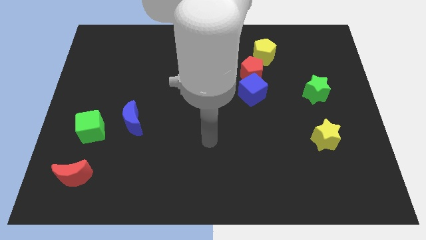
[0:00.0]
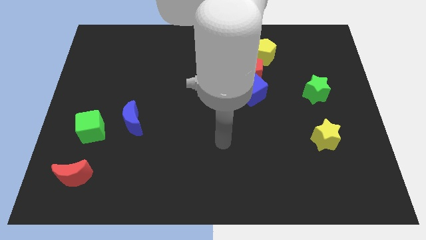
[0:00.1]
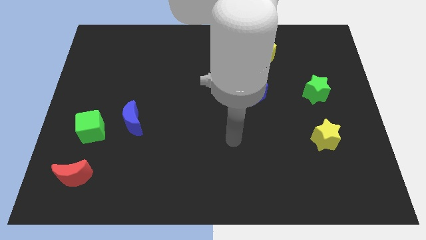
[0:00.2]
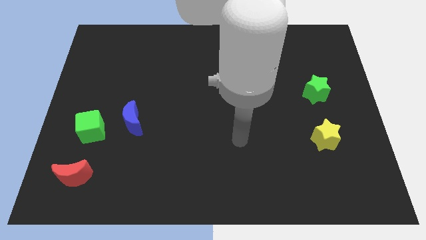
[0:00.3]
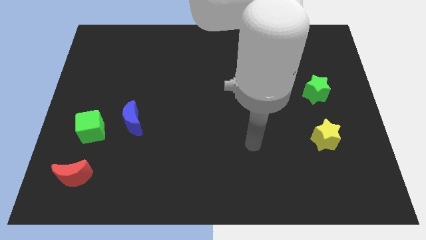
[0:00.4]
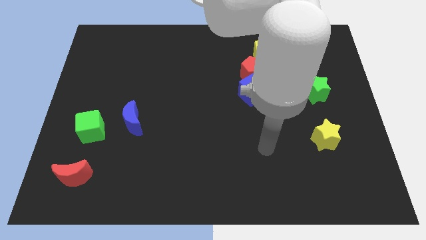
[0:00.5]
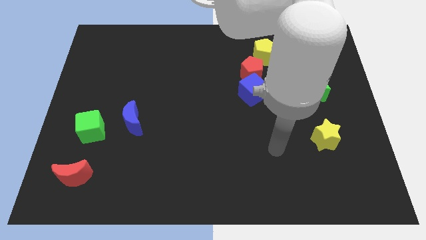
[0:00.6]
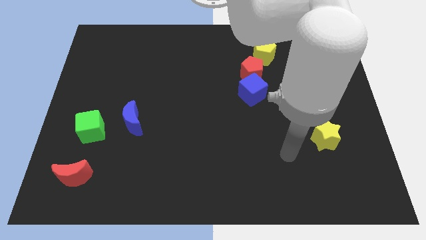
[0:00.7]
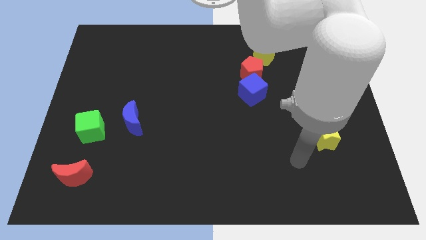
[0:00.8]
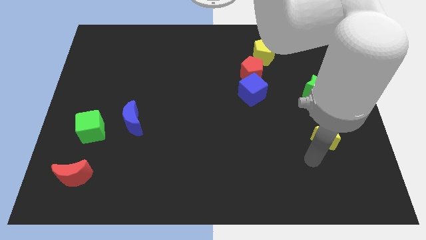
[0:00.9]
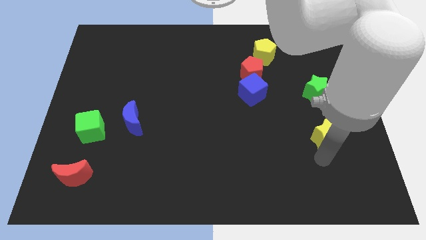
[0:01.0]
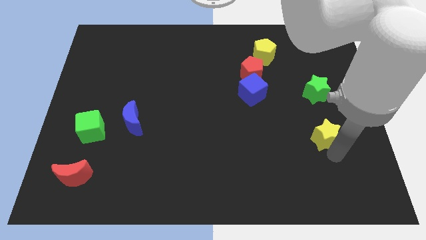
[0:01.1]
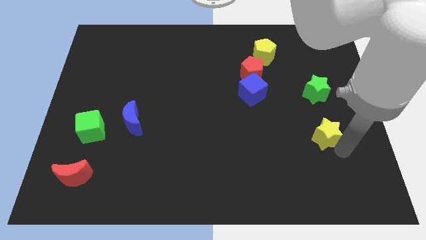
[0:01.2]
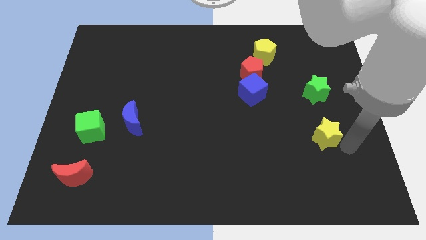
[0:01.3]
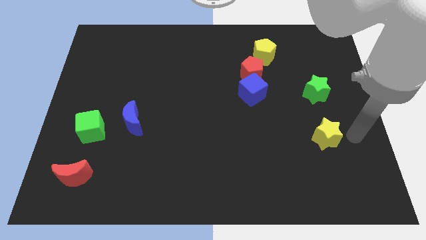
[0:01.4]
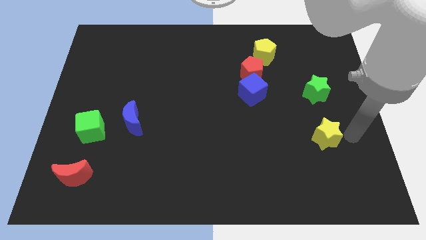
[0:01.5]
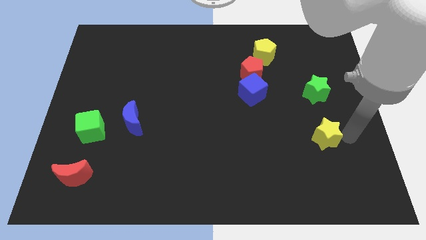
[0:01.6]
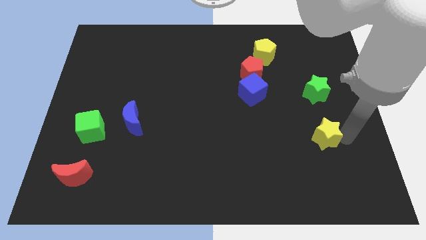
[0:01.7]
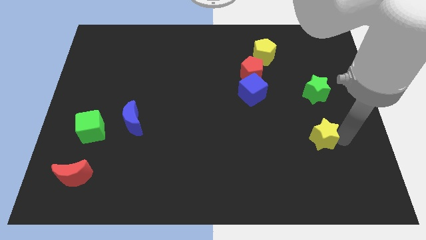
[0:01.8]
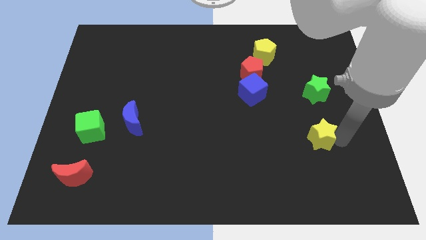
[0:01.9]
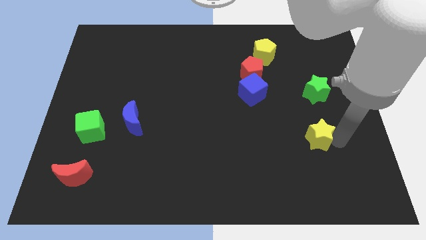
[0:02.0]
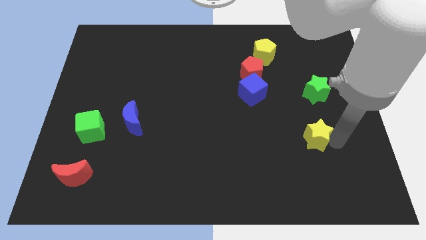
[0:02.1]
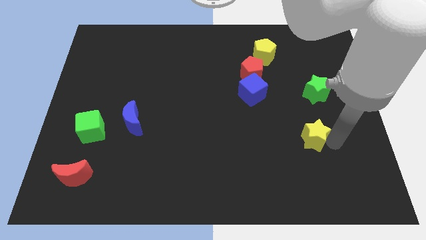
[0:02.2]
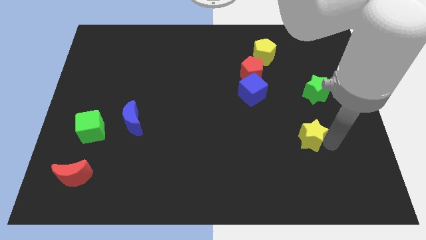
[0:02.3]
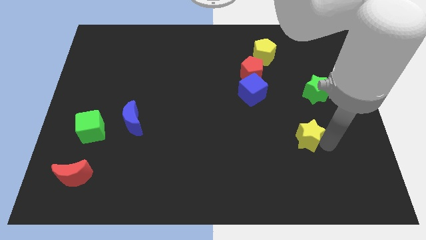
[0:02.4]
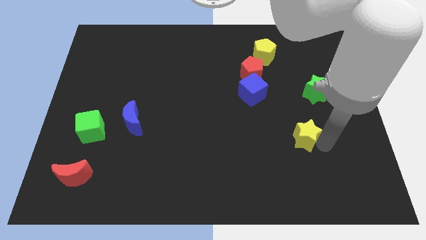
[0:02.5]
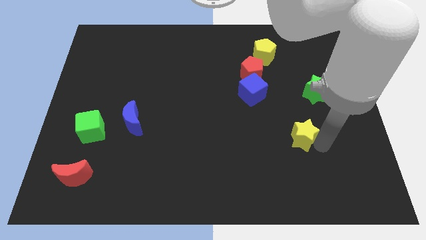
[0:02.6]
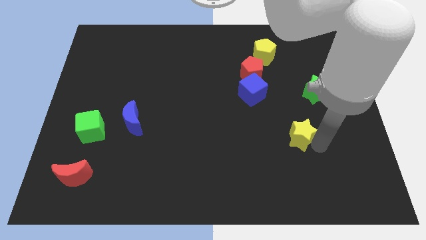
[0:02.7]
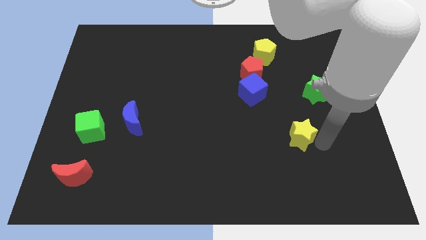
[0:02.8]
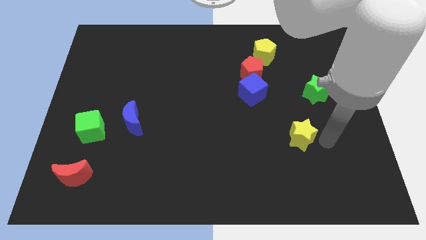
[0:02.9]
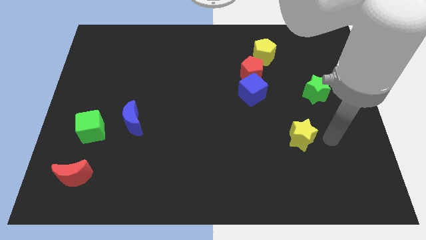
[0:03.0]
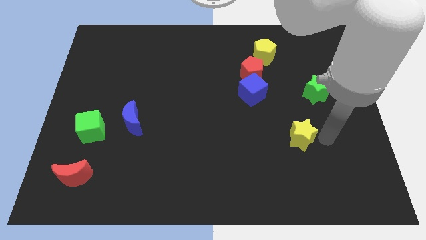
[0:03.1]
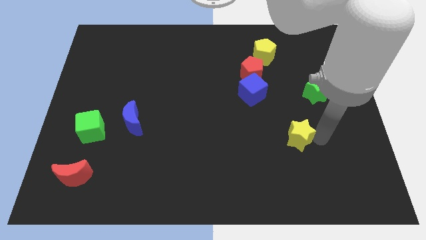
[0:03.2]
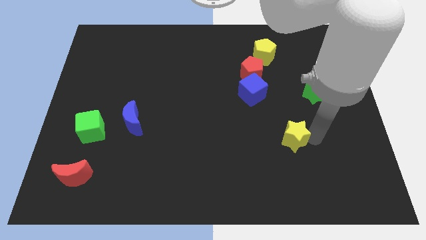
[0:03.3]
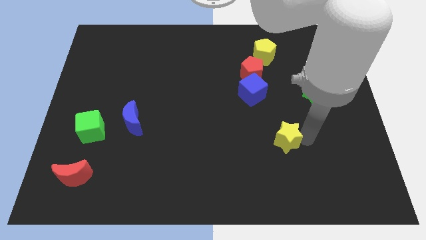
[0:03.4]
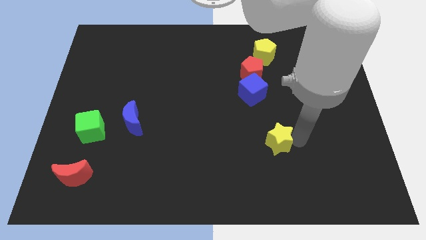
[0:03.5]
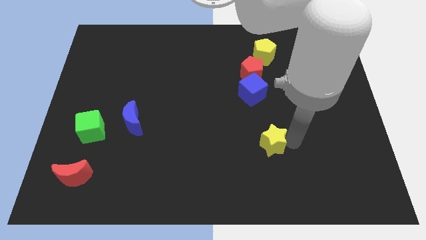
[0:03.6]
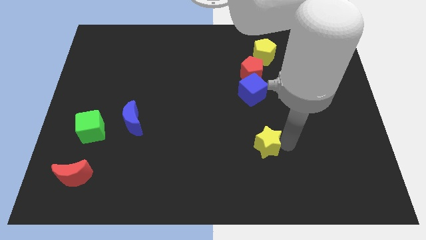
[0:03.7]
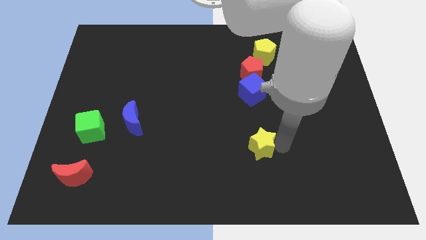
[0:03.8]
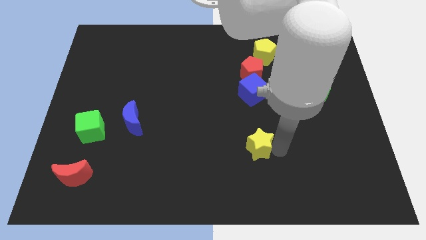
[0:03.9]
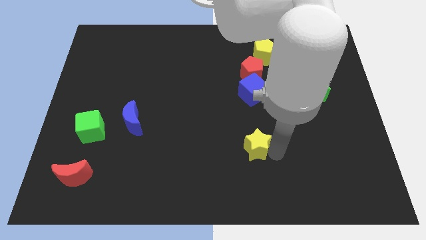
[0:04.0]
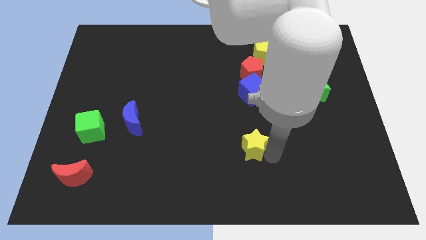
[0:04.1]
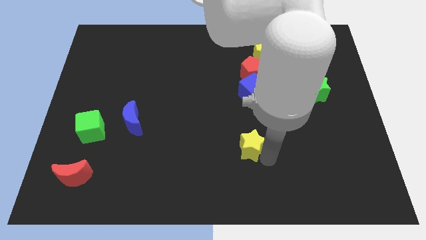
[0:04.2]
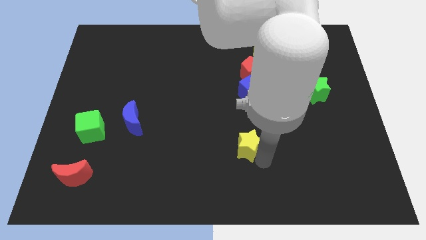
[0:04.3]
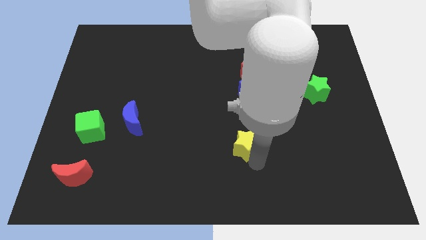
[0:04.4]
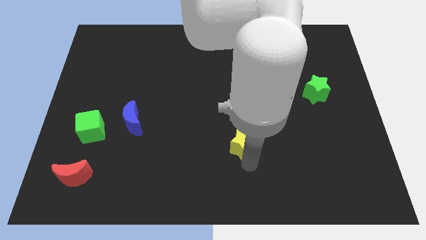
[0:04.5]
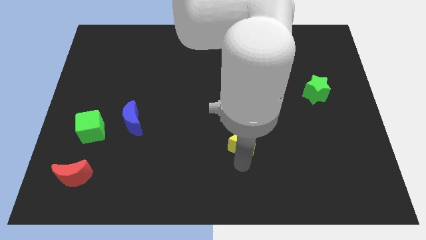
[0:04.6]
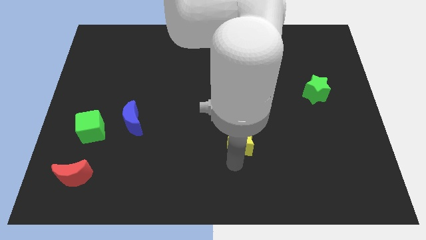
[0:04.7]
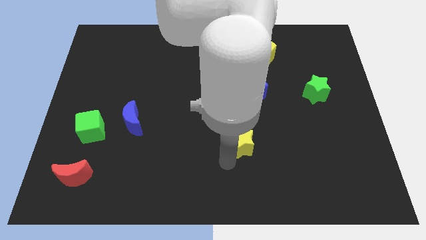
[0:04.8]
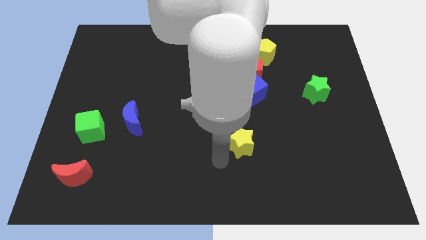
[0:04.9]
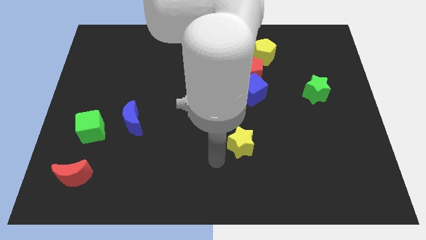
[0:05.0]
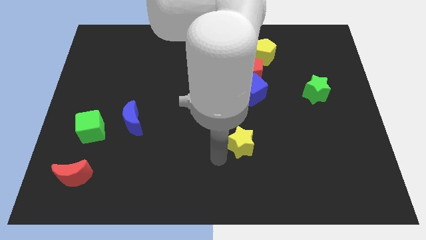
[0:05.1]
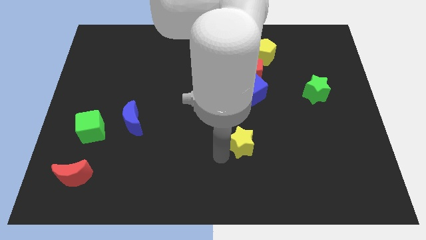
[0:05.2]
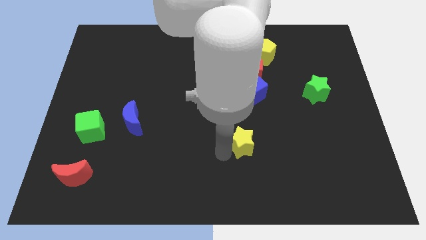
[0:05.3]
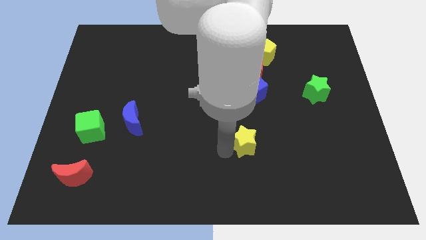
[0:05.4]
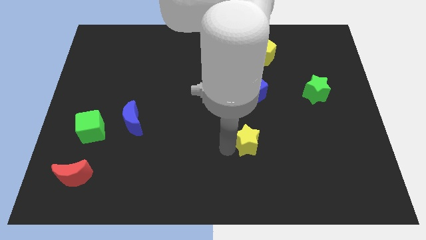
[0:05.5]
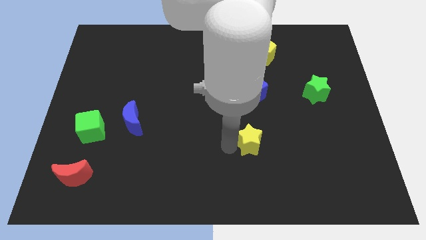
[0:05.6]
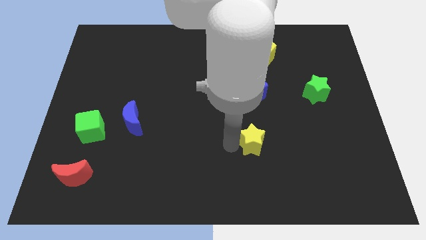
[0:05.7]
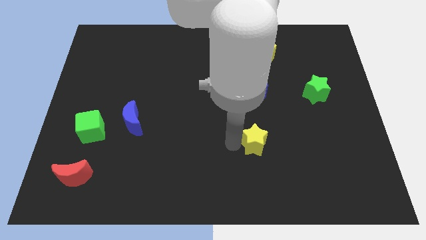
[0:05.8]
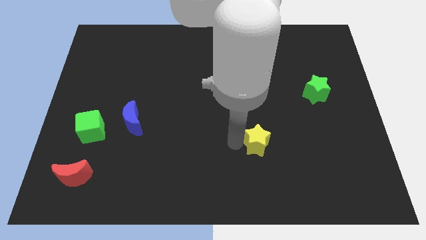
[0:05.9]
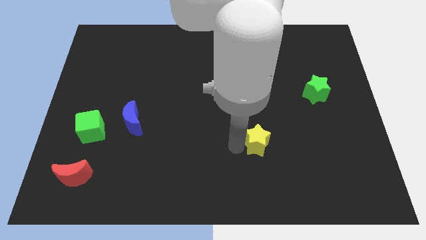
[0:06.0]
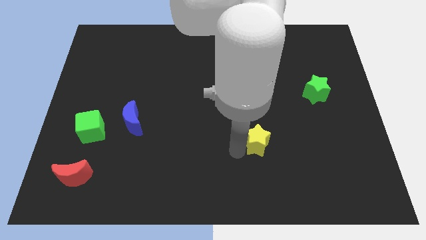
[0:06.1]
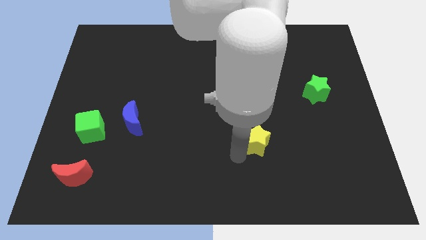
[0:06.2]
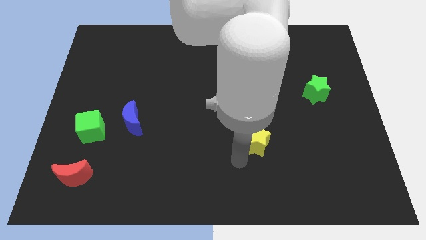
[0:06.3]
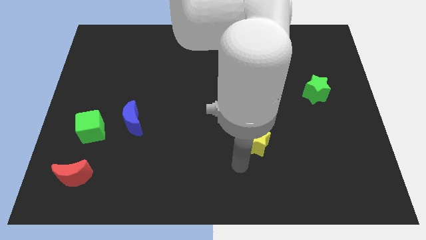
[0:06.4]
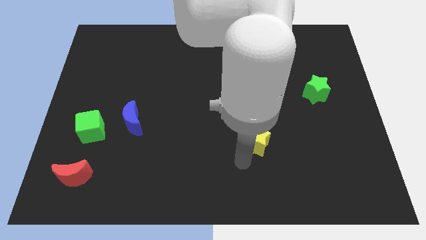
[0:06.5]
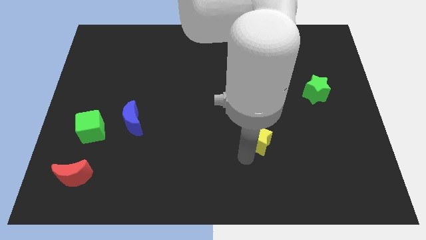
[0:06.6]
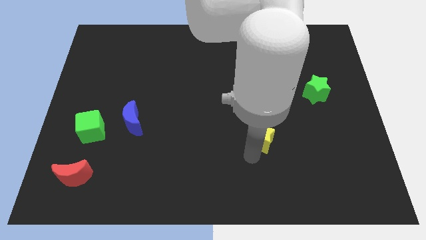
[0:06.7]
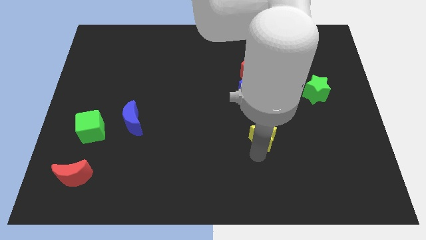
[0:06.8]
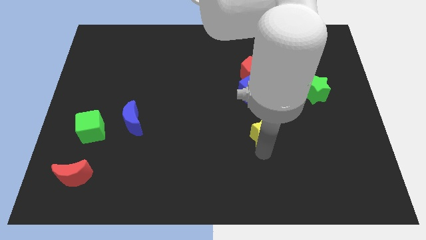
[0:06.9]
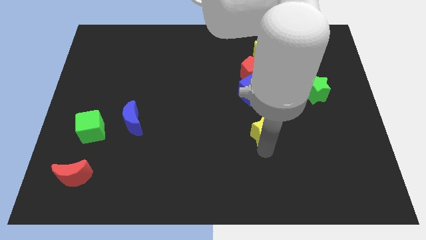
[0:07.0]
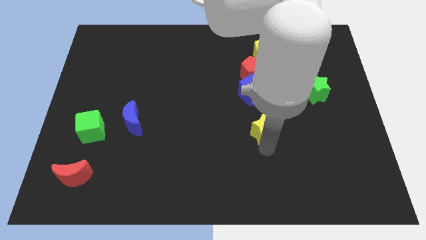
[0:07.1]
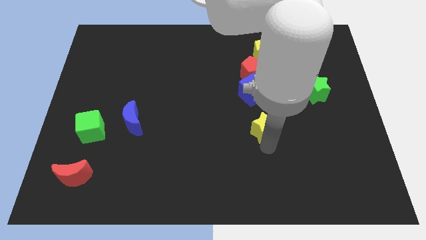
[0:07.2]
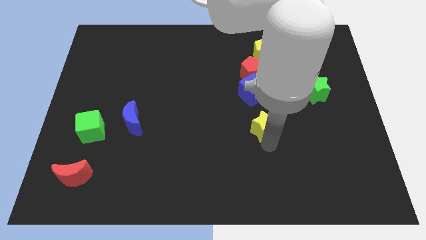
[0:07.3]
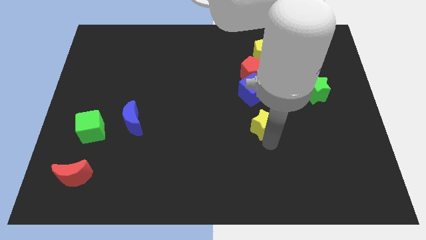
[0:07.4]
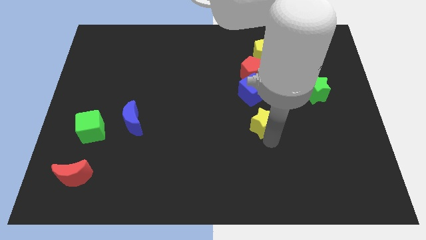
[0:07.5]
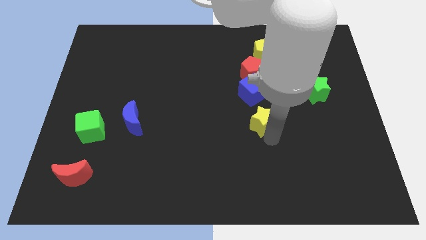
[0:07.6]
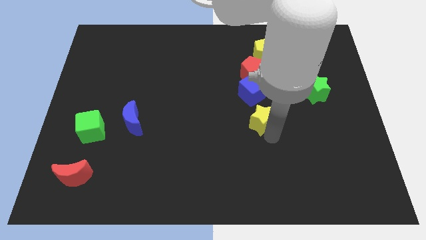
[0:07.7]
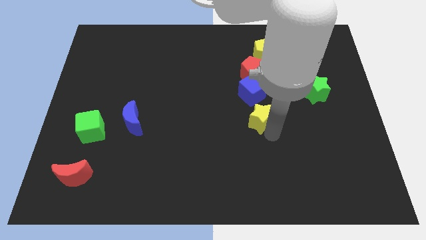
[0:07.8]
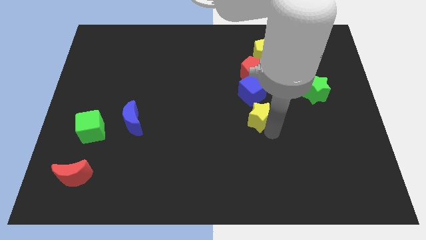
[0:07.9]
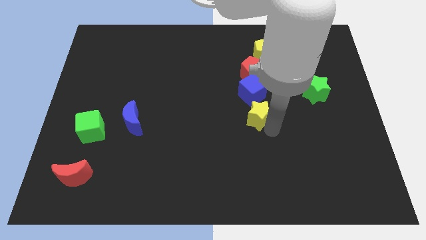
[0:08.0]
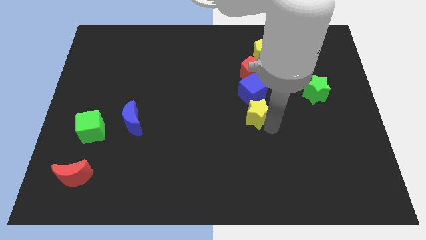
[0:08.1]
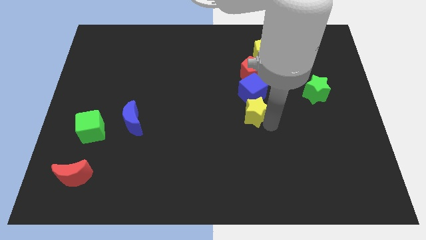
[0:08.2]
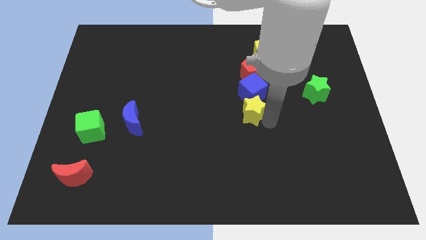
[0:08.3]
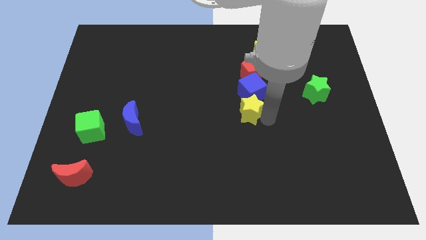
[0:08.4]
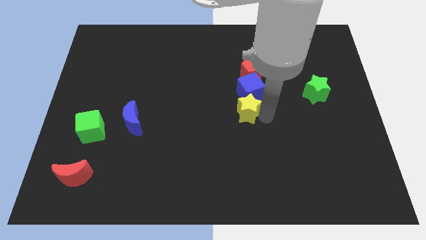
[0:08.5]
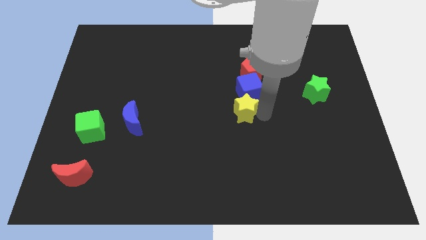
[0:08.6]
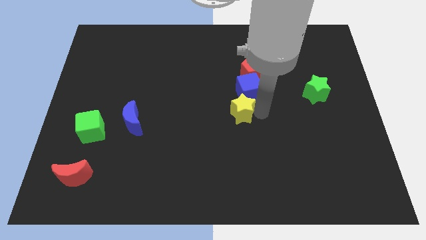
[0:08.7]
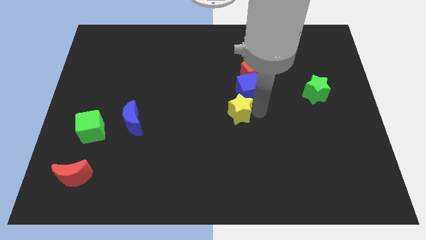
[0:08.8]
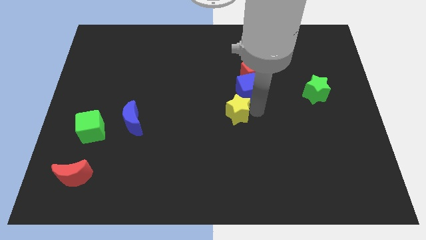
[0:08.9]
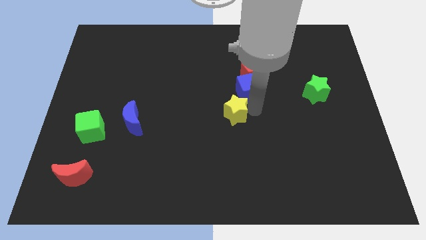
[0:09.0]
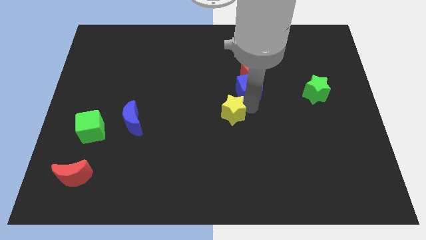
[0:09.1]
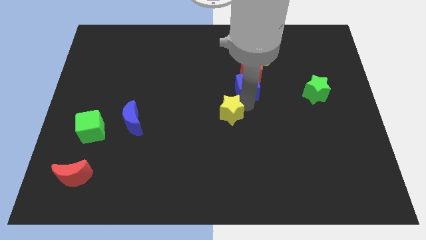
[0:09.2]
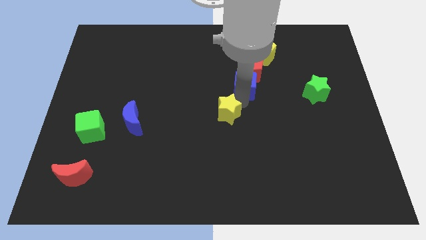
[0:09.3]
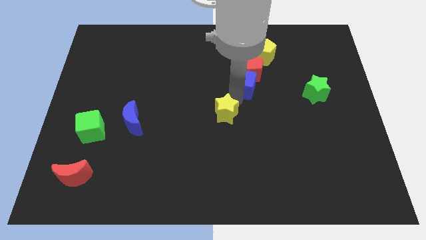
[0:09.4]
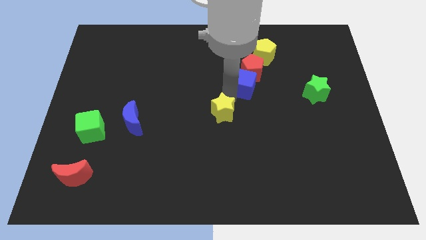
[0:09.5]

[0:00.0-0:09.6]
move the yellow star to the left
